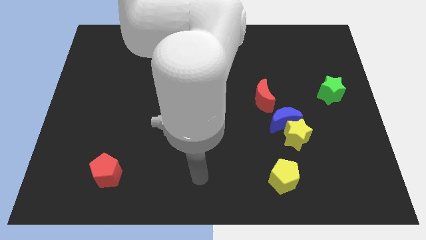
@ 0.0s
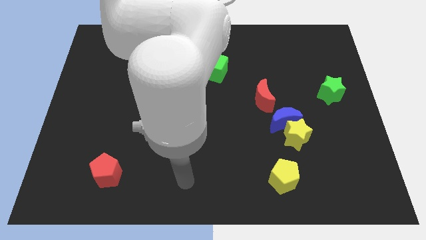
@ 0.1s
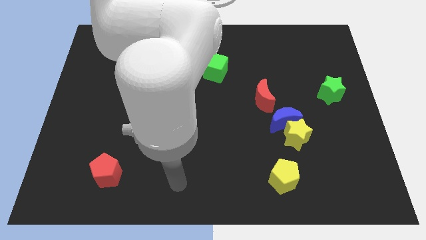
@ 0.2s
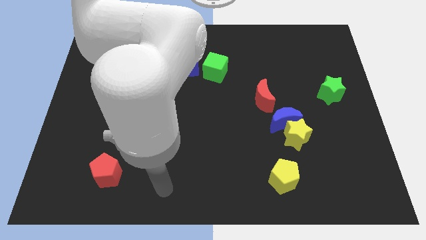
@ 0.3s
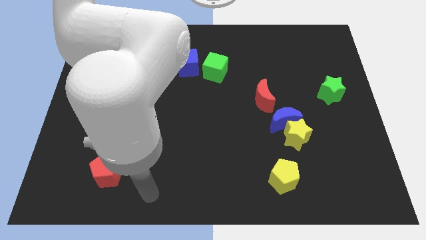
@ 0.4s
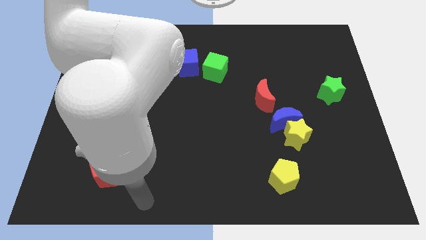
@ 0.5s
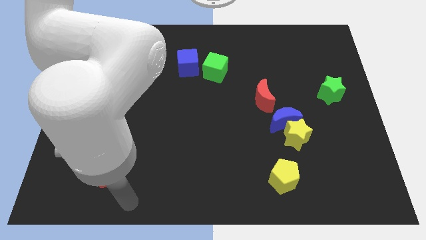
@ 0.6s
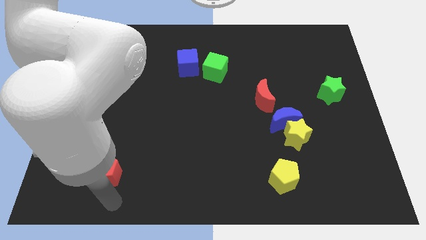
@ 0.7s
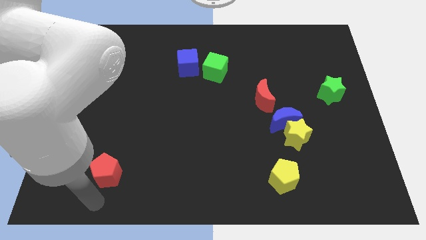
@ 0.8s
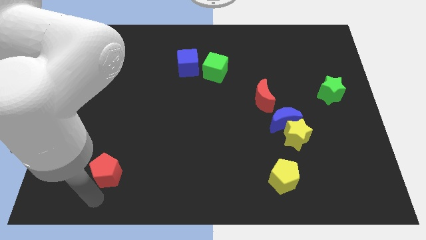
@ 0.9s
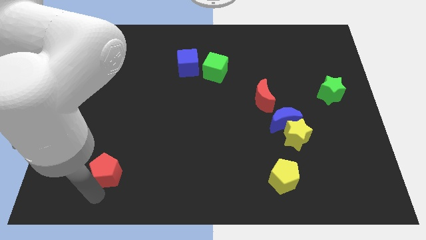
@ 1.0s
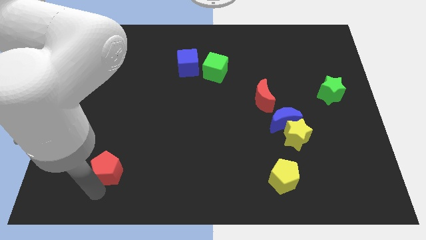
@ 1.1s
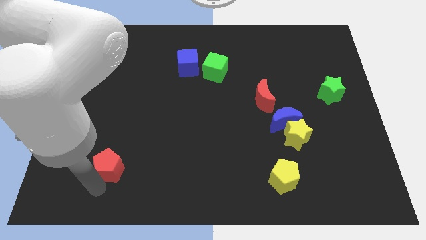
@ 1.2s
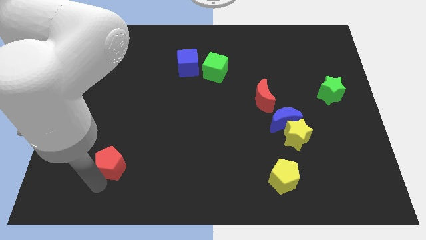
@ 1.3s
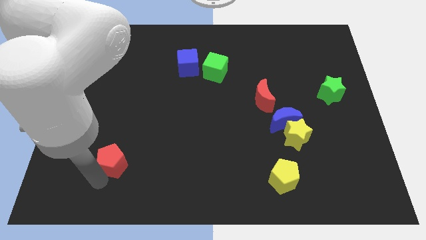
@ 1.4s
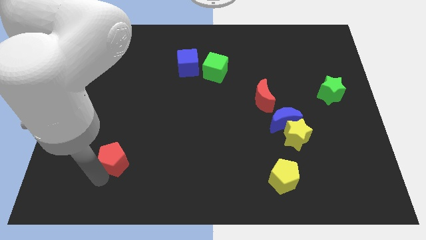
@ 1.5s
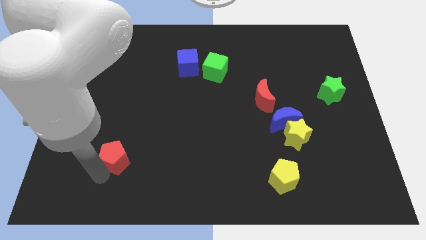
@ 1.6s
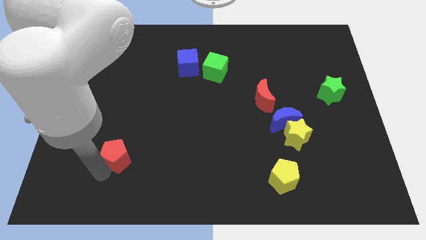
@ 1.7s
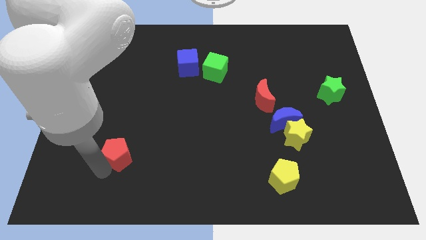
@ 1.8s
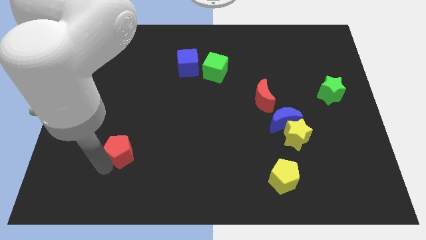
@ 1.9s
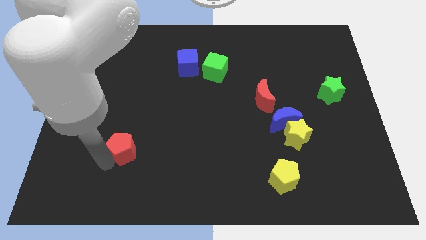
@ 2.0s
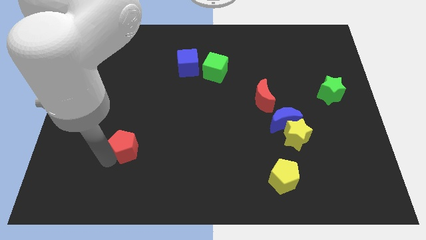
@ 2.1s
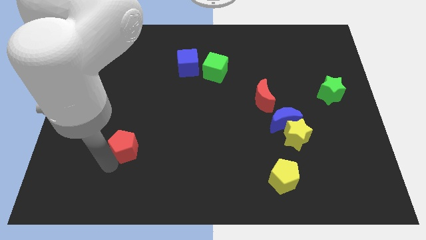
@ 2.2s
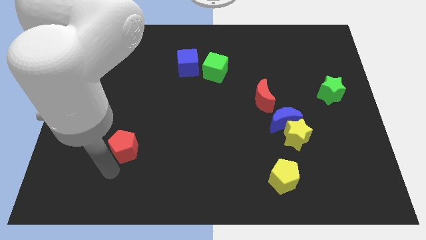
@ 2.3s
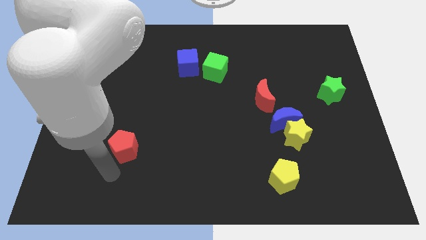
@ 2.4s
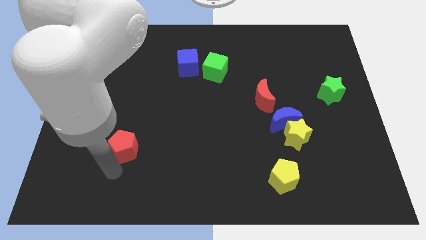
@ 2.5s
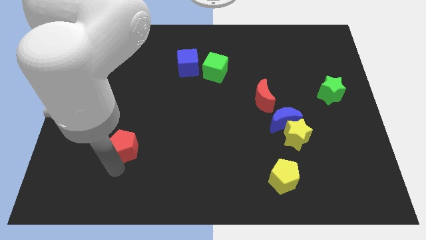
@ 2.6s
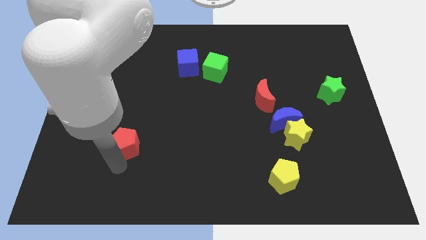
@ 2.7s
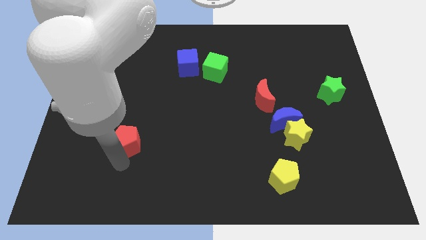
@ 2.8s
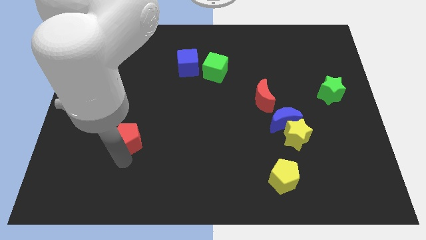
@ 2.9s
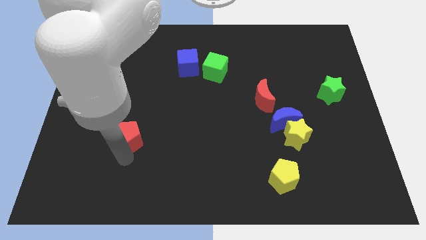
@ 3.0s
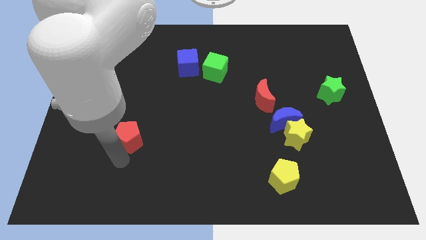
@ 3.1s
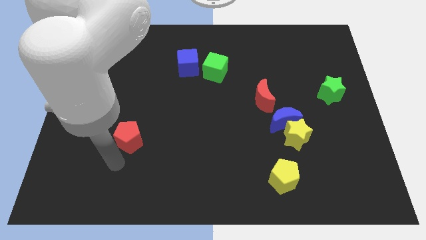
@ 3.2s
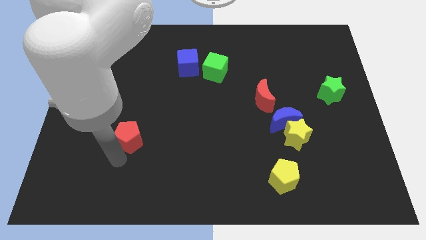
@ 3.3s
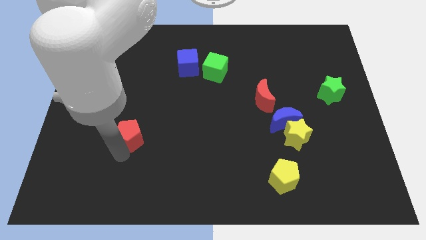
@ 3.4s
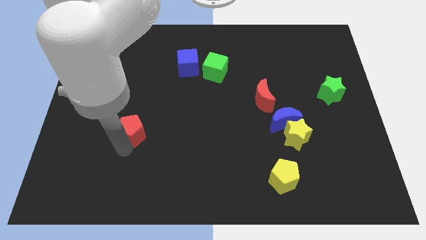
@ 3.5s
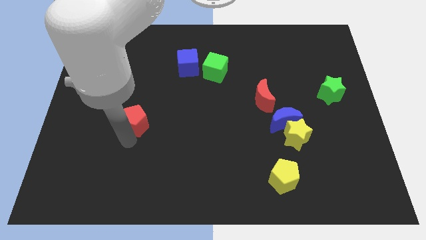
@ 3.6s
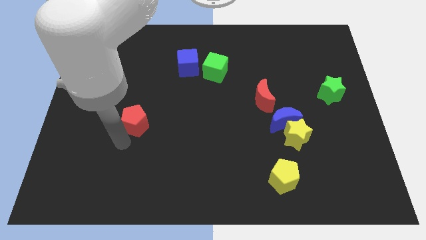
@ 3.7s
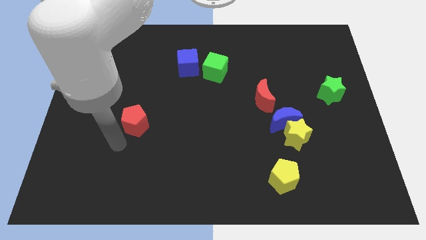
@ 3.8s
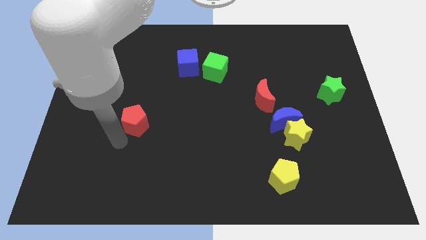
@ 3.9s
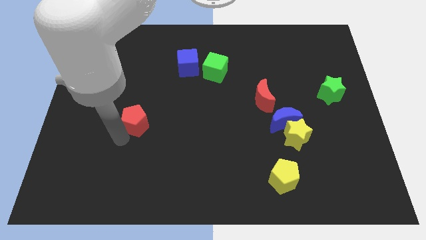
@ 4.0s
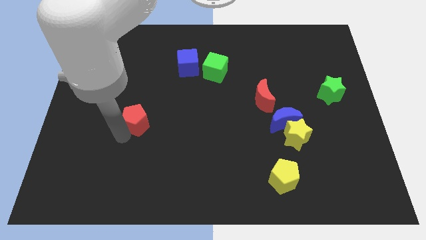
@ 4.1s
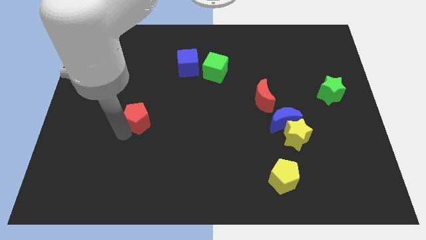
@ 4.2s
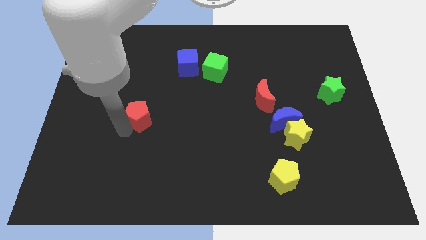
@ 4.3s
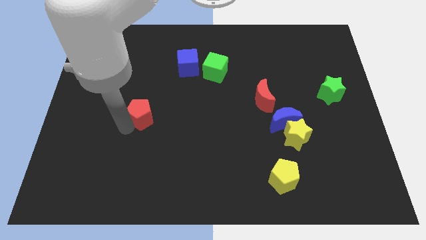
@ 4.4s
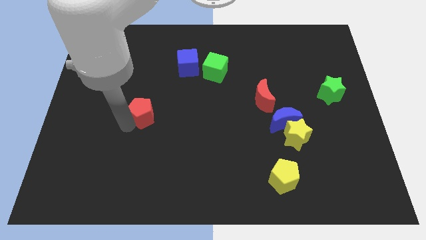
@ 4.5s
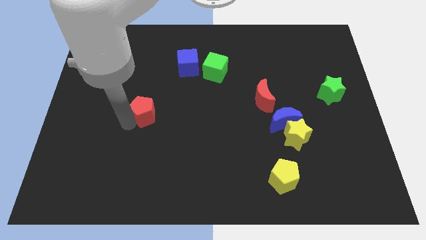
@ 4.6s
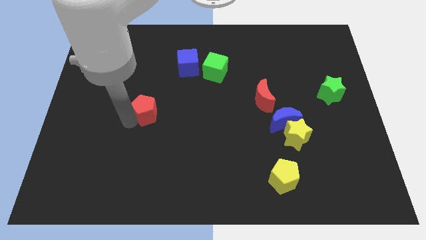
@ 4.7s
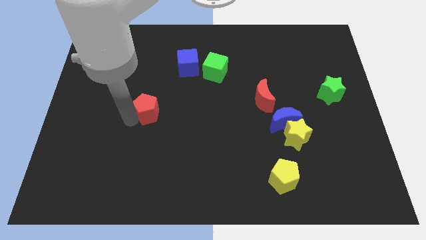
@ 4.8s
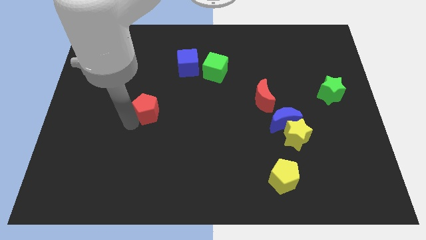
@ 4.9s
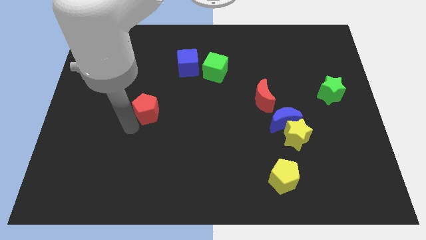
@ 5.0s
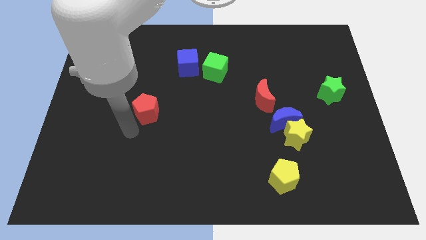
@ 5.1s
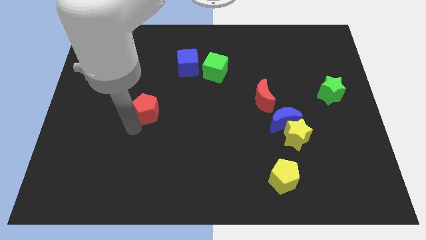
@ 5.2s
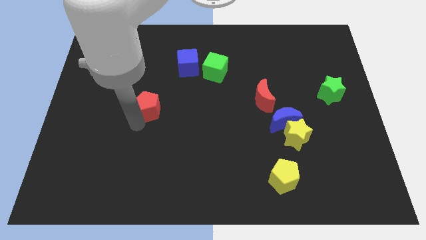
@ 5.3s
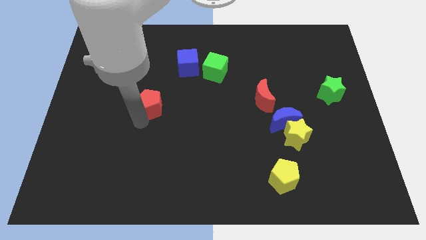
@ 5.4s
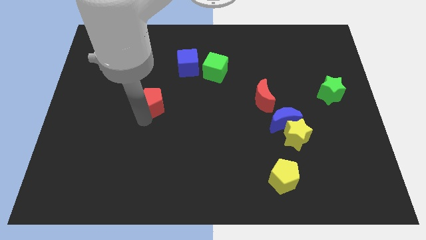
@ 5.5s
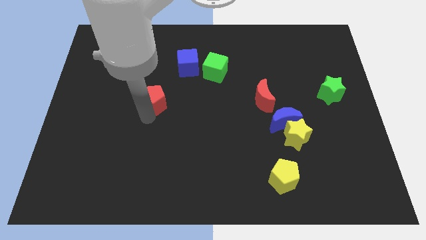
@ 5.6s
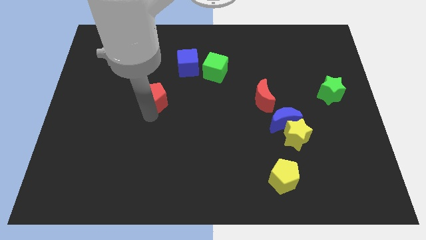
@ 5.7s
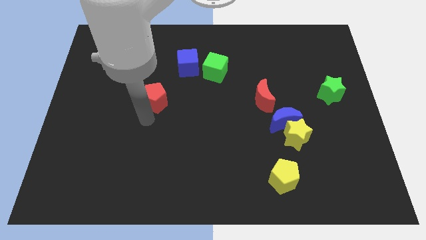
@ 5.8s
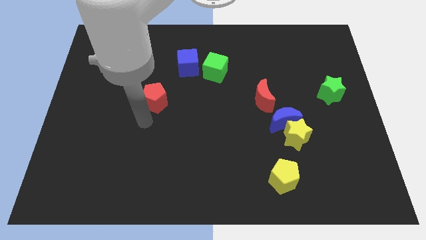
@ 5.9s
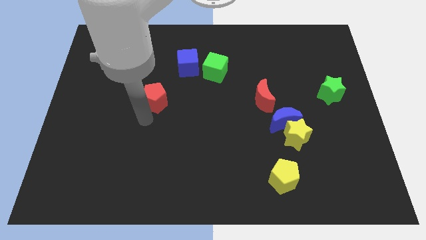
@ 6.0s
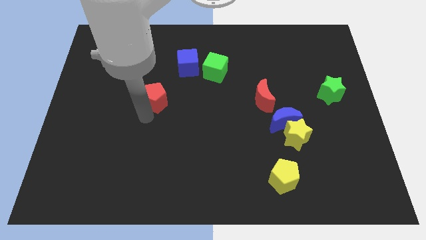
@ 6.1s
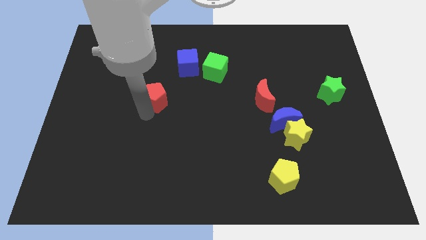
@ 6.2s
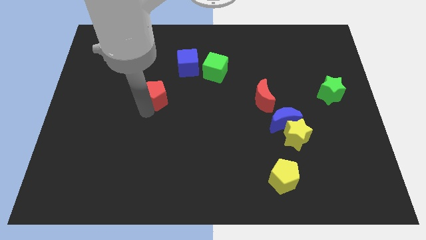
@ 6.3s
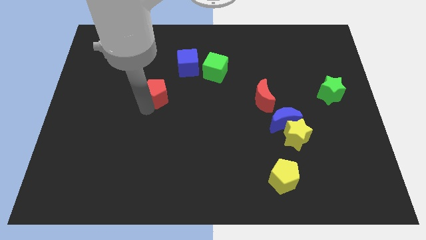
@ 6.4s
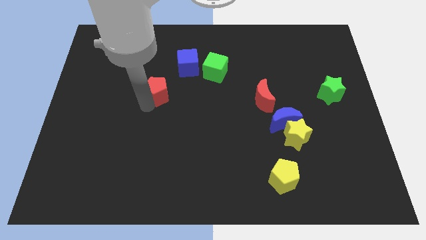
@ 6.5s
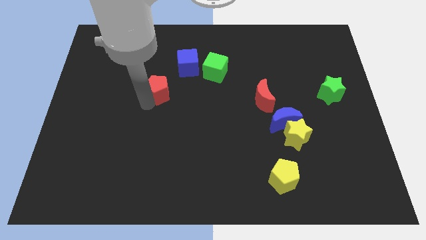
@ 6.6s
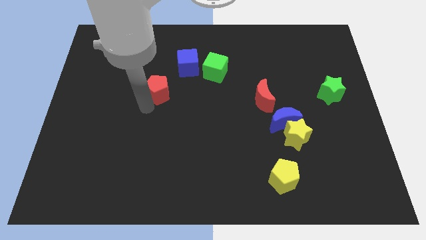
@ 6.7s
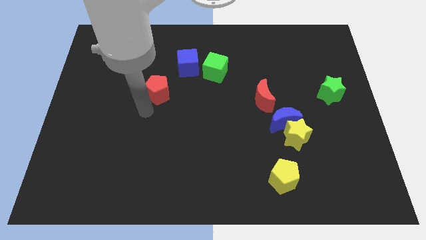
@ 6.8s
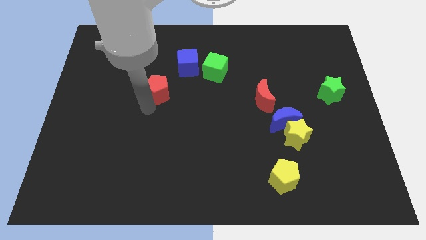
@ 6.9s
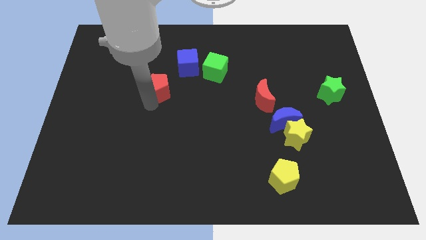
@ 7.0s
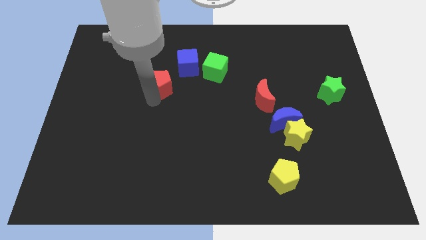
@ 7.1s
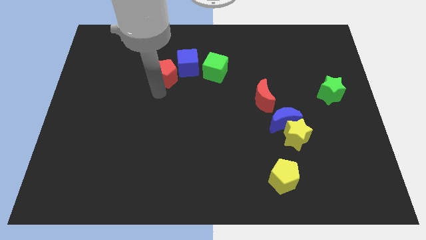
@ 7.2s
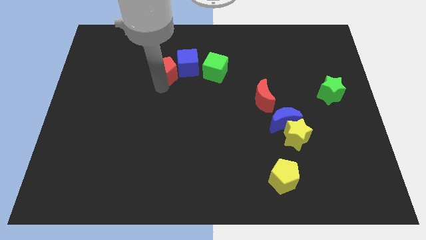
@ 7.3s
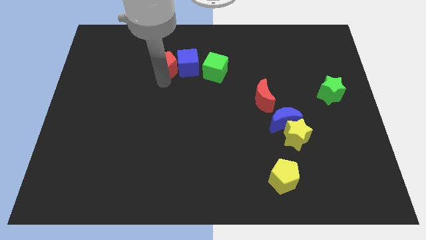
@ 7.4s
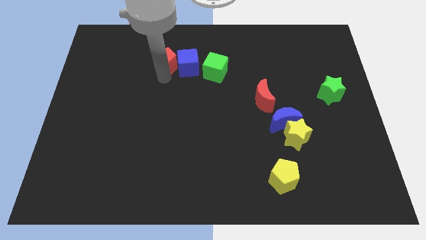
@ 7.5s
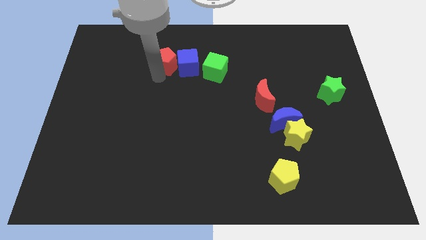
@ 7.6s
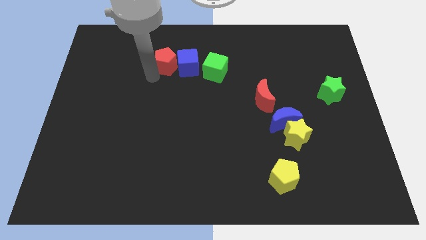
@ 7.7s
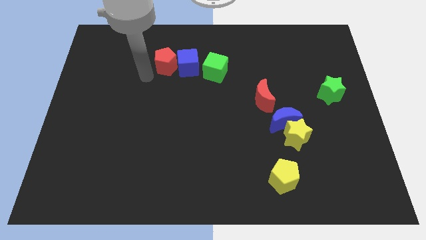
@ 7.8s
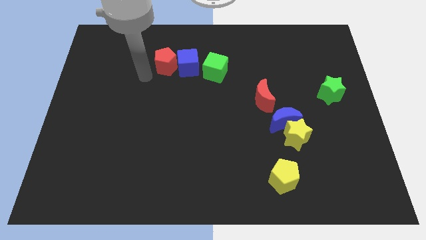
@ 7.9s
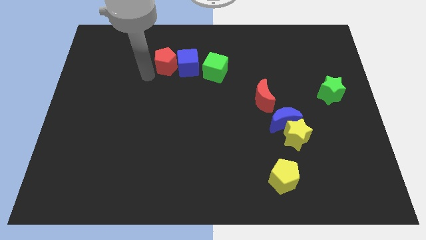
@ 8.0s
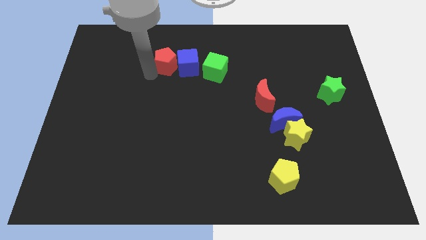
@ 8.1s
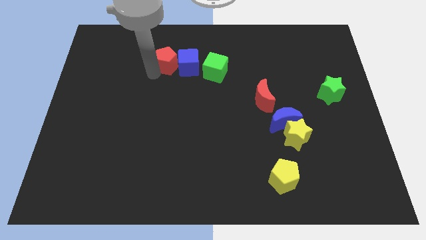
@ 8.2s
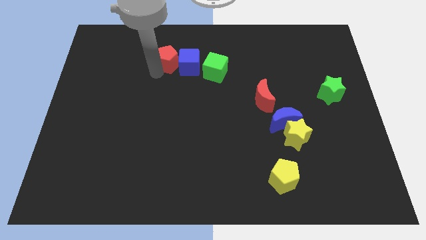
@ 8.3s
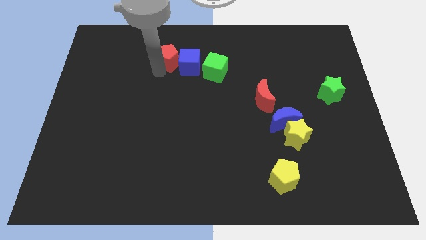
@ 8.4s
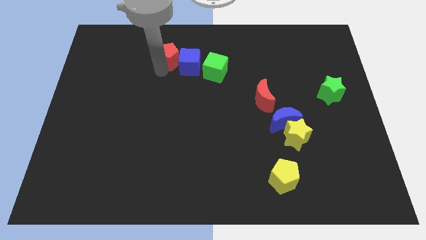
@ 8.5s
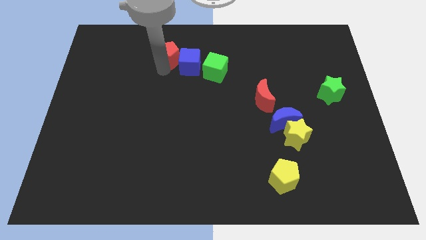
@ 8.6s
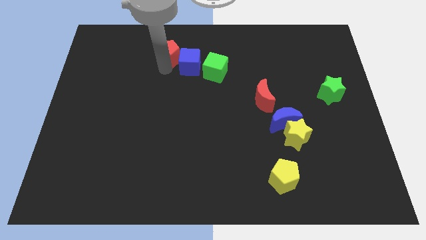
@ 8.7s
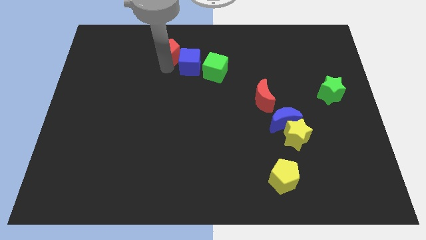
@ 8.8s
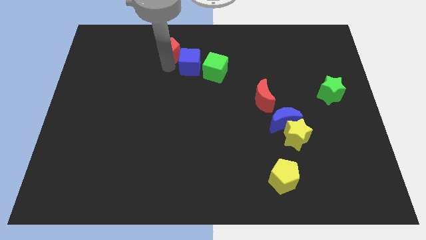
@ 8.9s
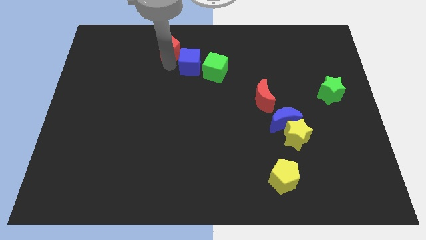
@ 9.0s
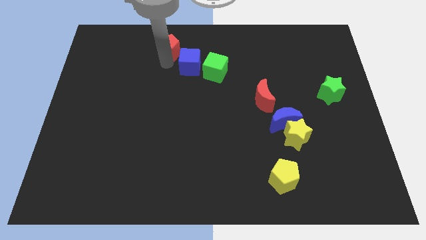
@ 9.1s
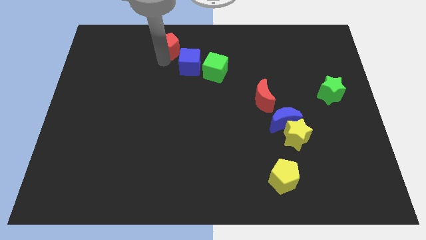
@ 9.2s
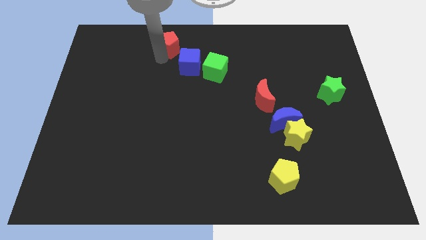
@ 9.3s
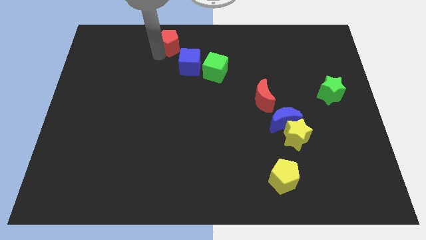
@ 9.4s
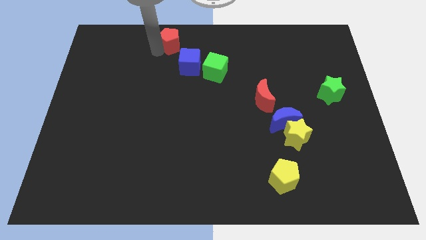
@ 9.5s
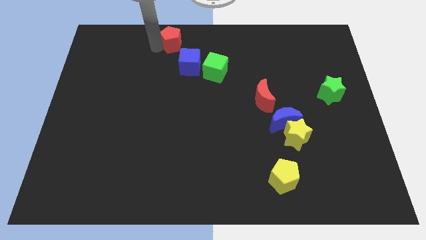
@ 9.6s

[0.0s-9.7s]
move the red pentagon to the towards your base
